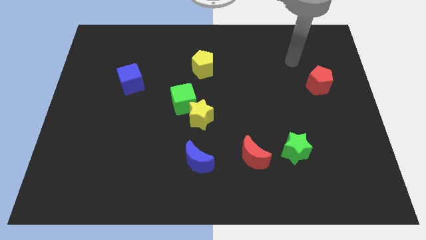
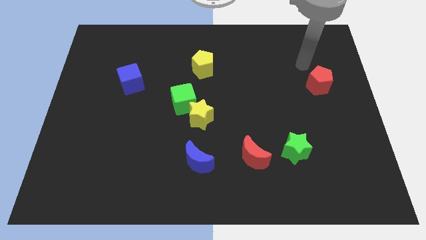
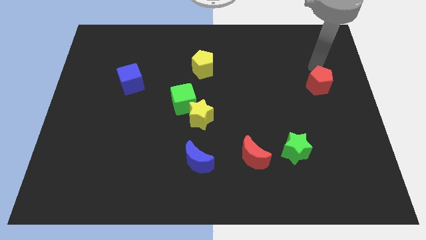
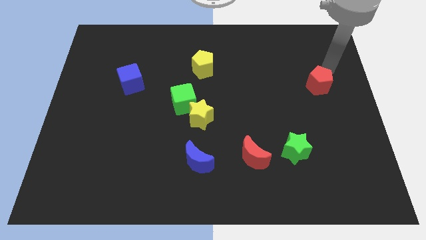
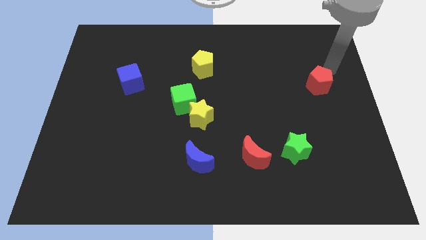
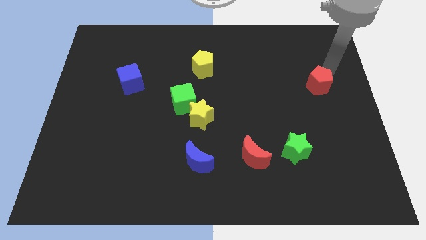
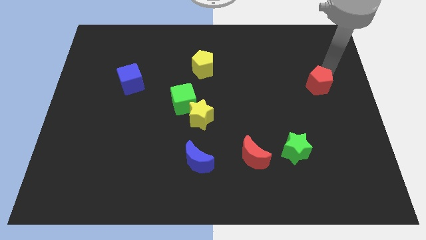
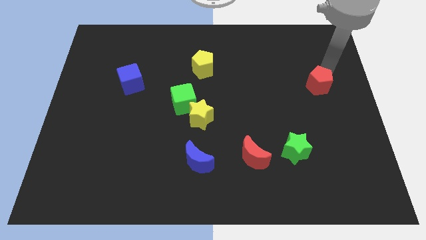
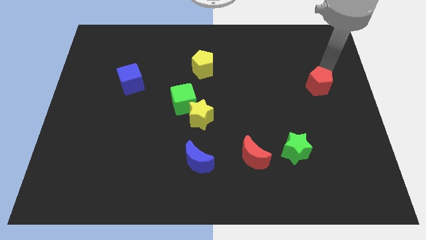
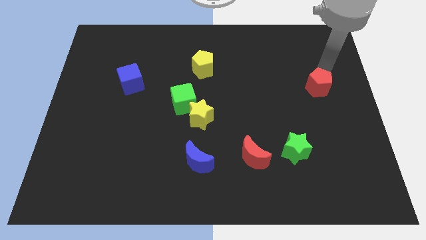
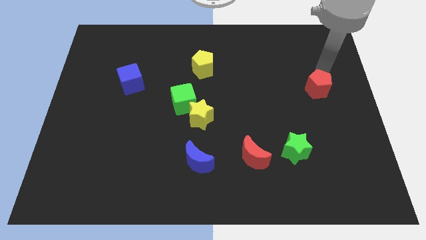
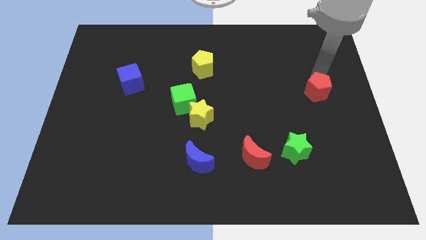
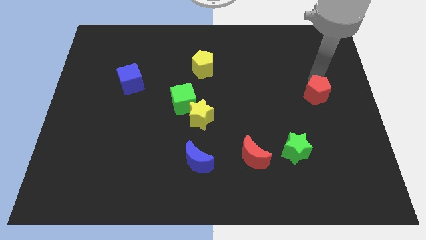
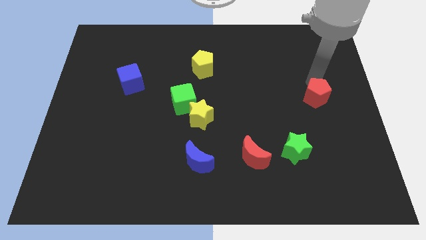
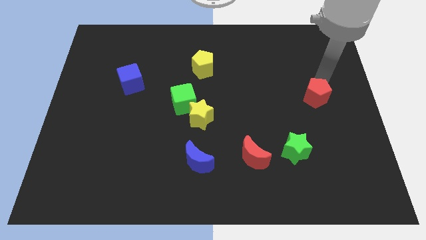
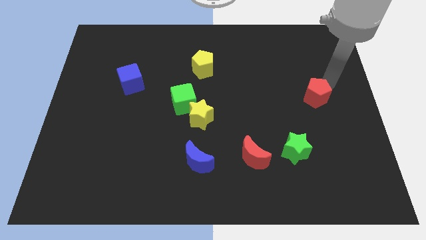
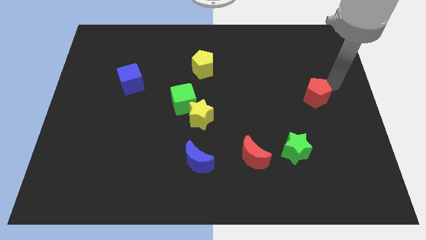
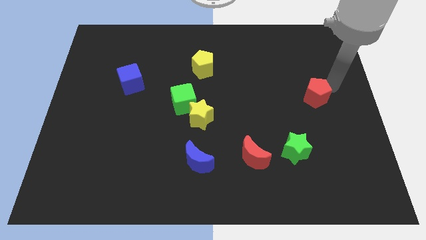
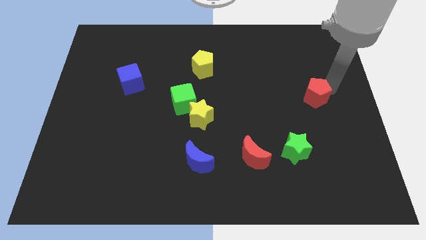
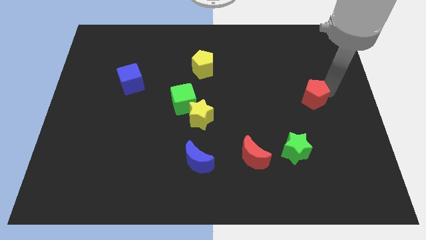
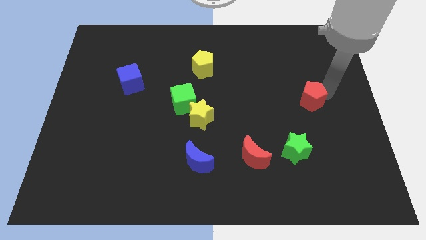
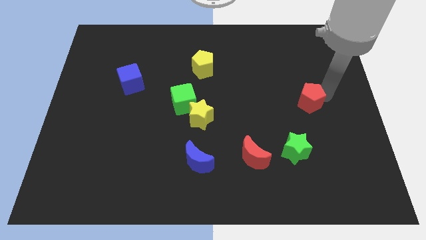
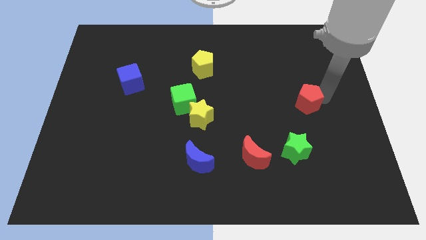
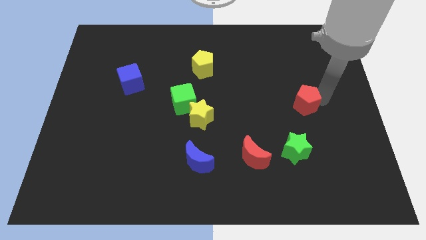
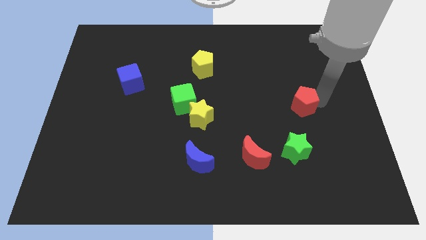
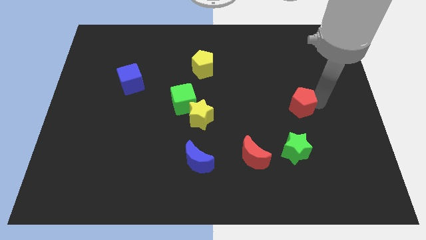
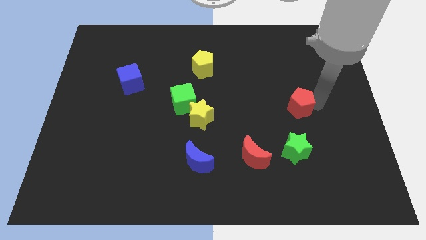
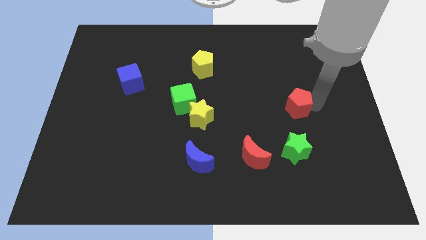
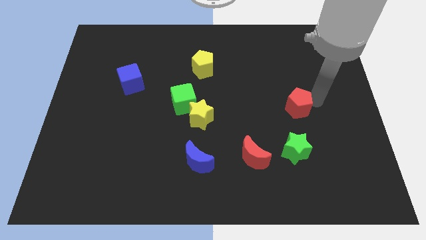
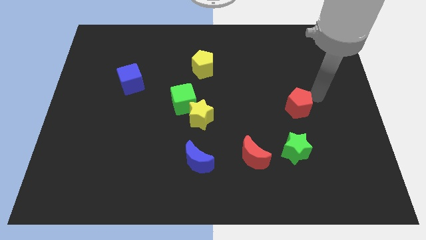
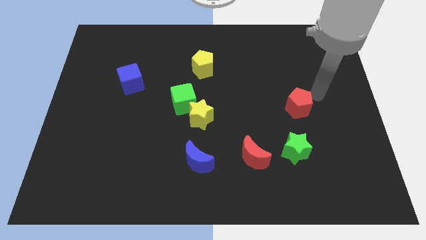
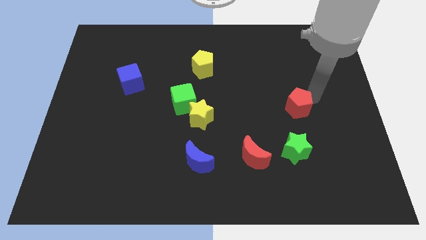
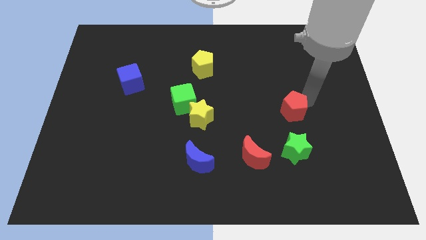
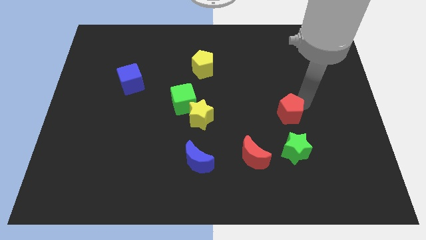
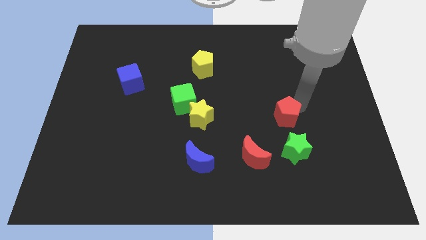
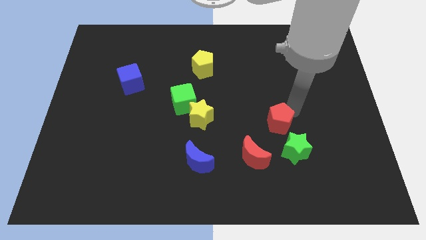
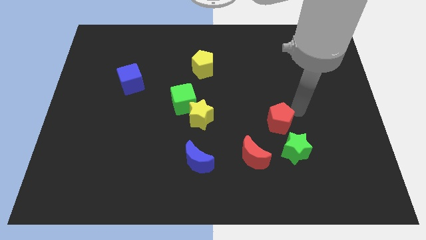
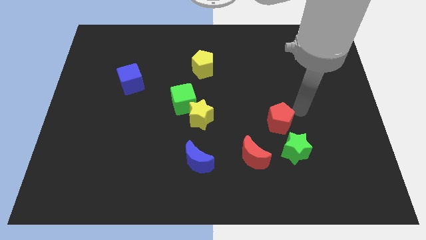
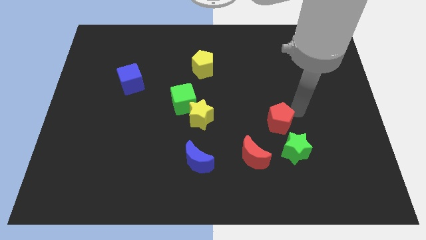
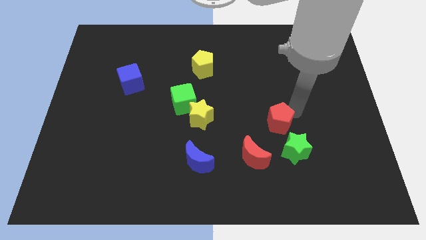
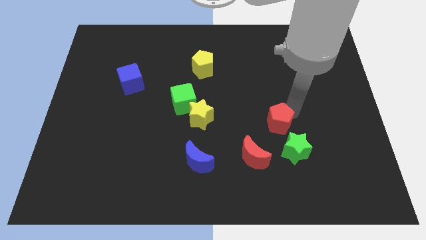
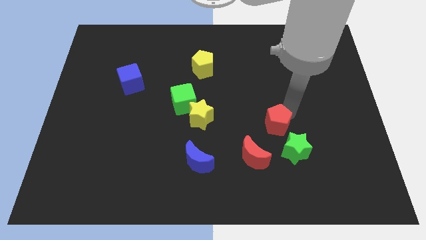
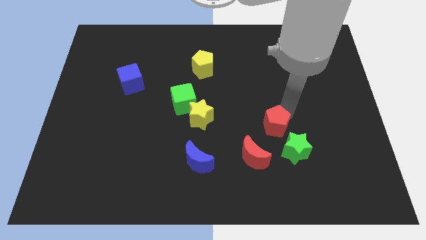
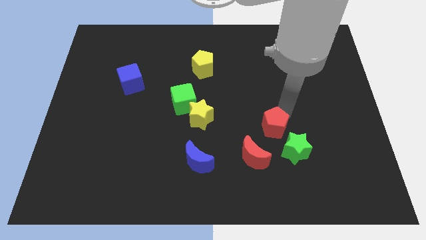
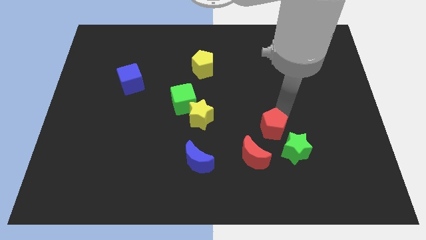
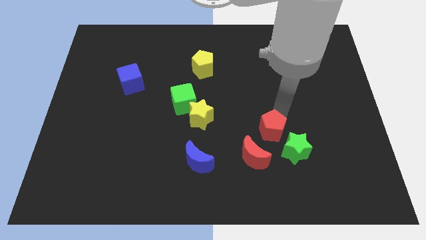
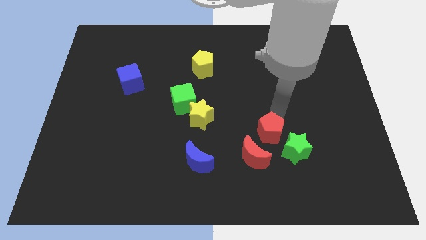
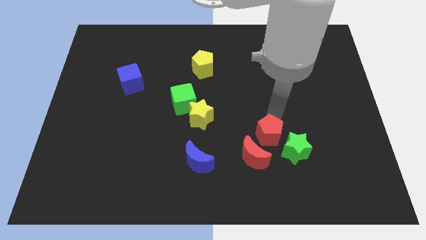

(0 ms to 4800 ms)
slide the red pentagon downwards and then left

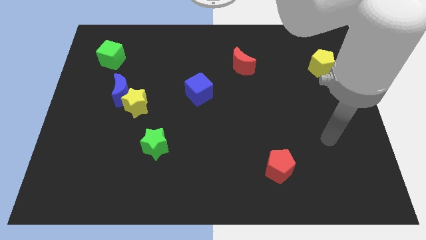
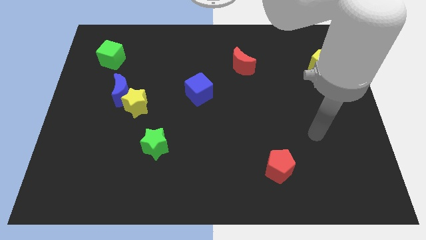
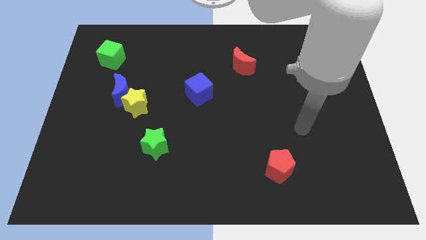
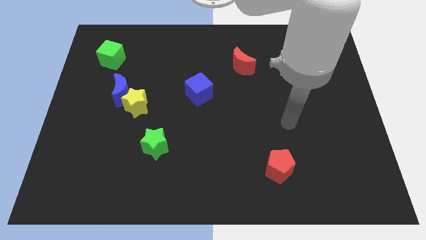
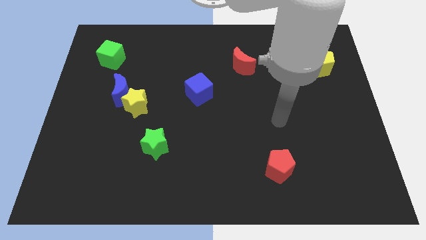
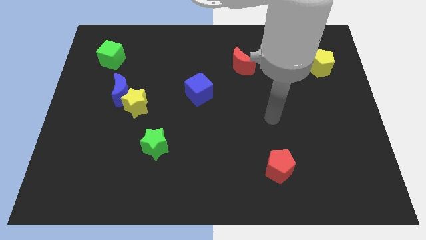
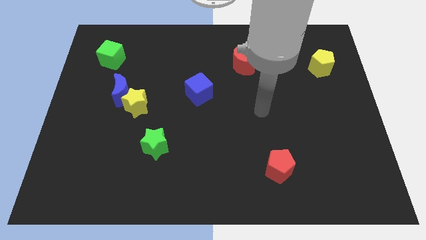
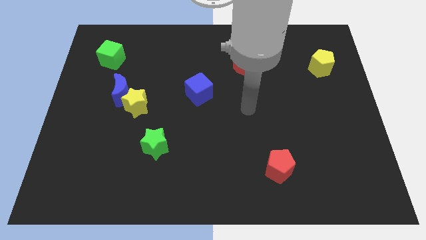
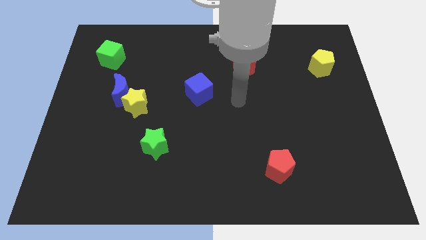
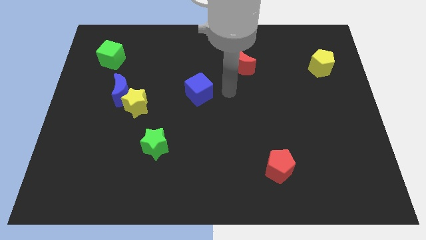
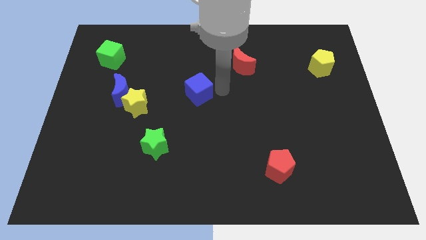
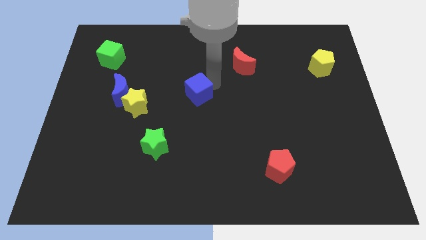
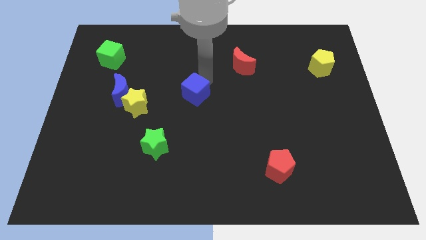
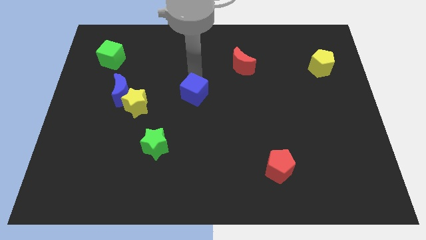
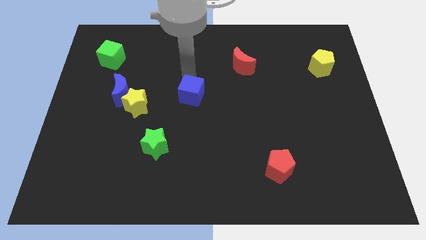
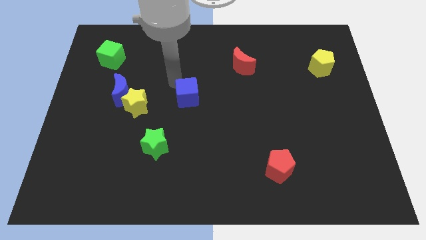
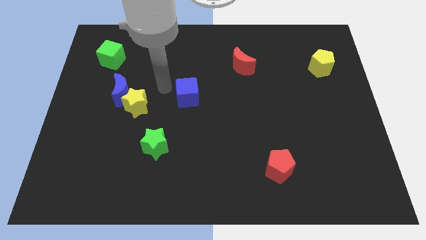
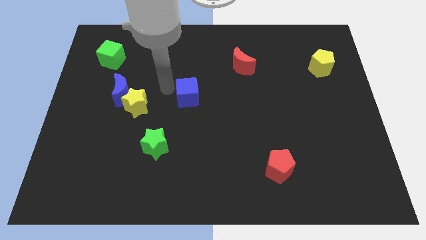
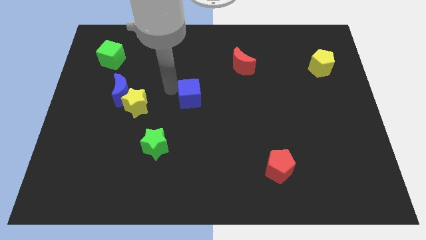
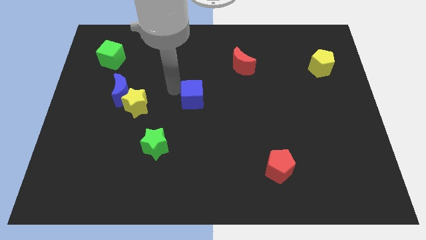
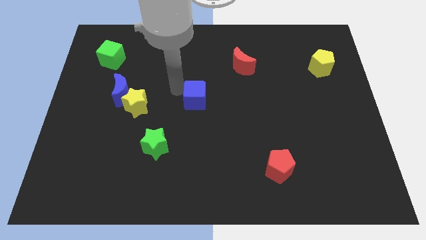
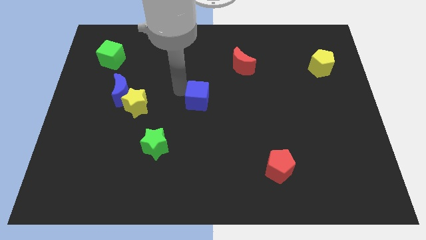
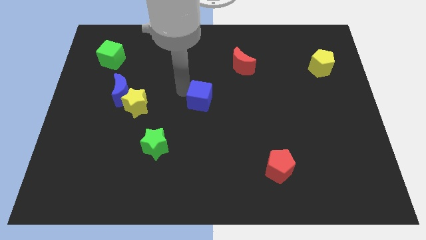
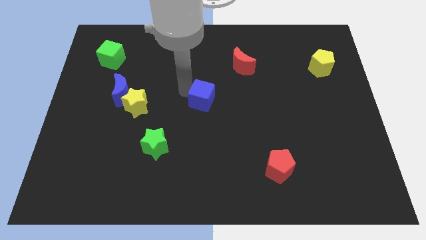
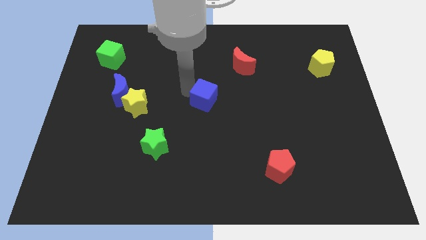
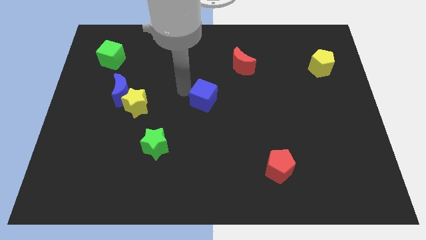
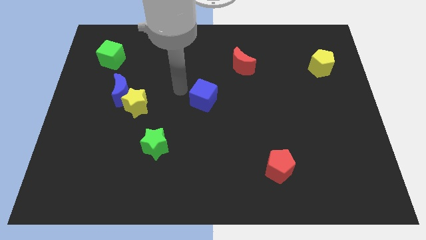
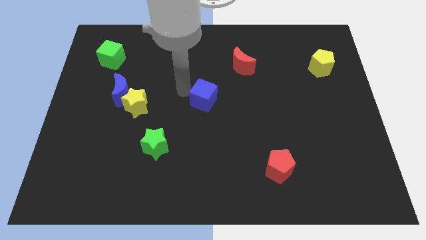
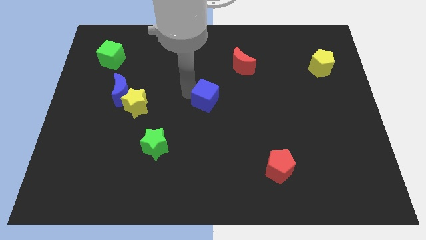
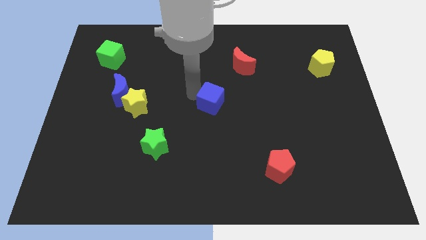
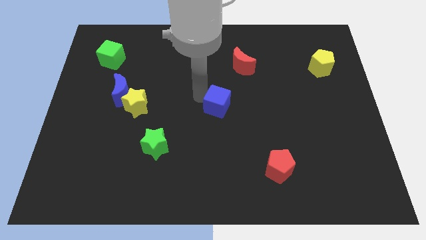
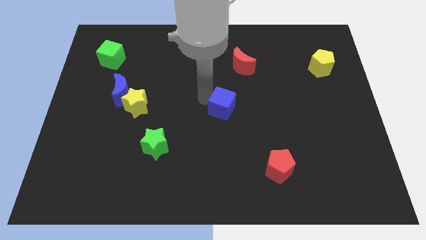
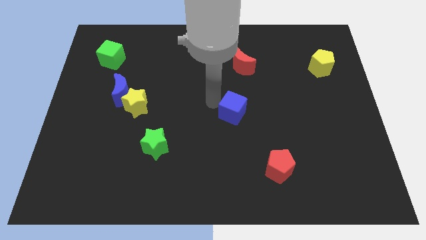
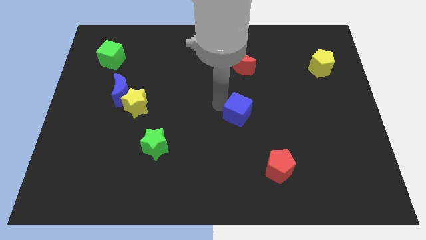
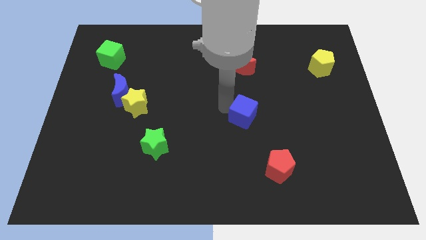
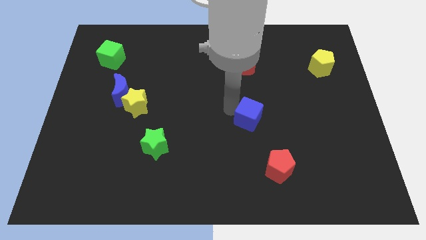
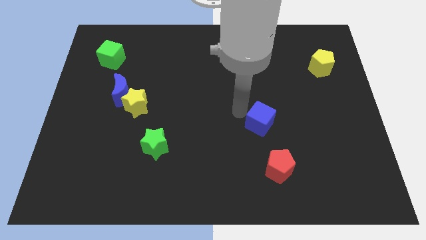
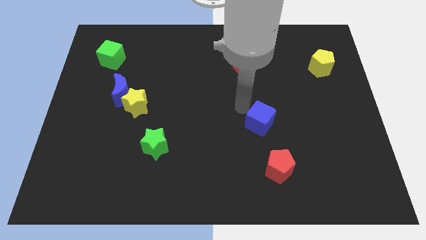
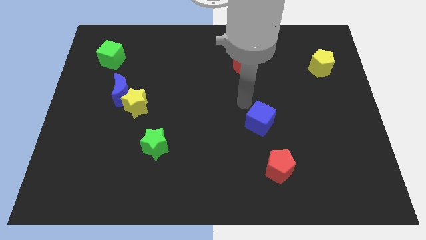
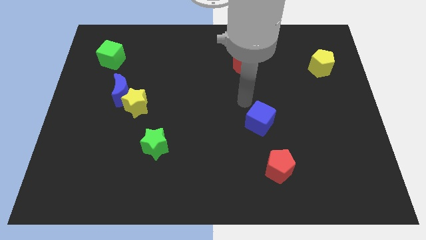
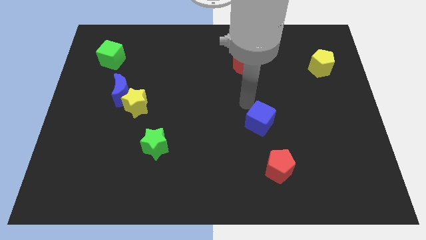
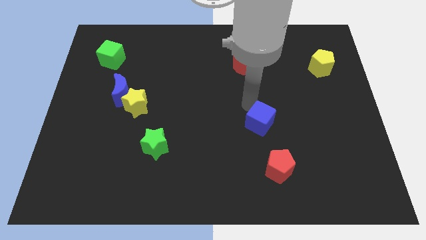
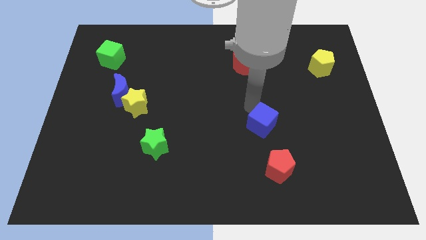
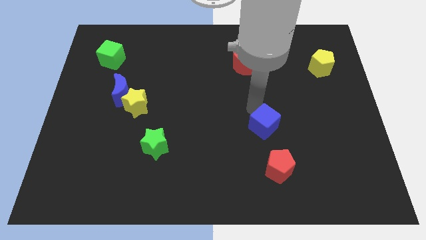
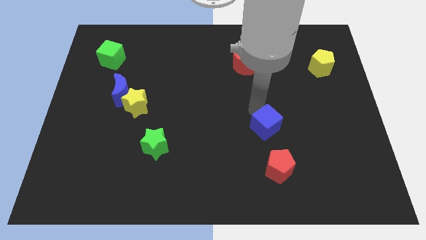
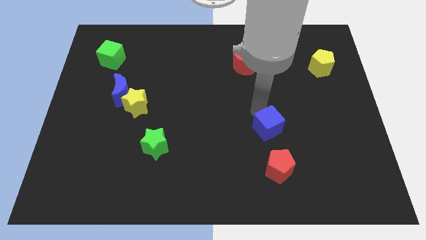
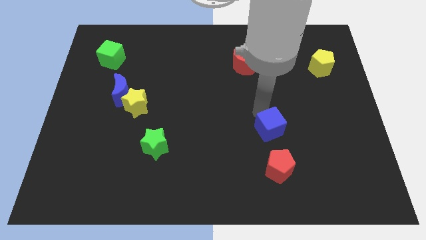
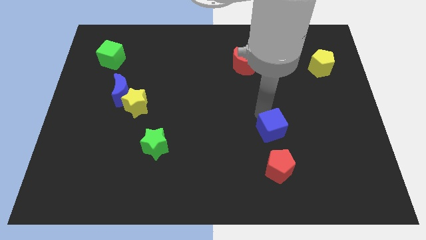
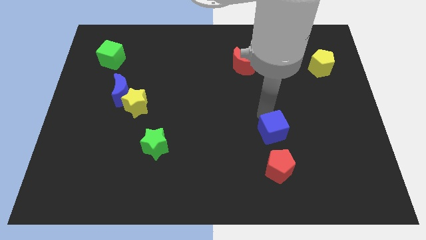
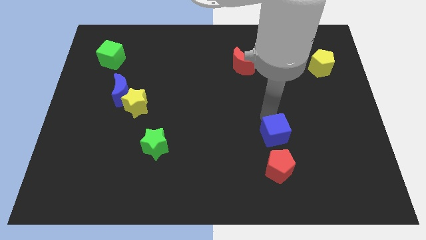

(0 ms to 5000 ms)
push the blue cube downwards and then right
